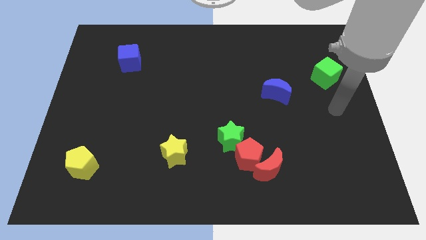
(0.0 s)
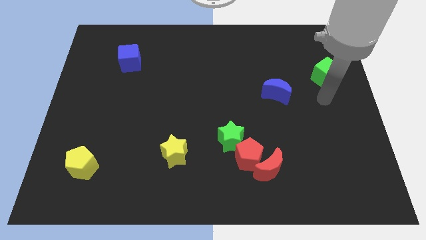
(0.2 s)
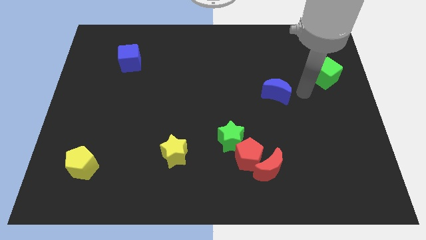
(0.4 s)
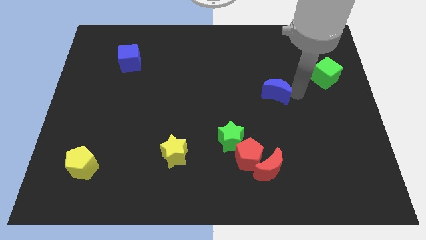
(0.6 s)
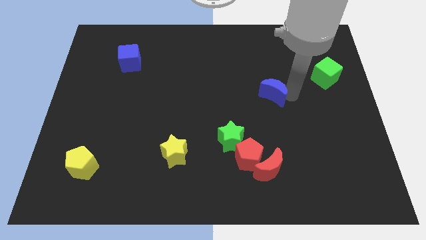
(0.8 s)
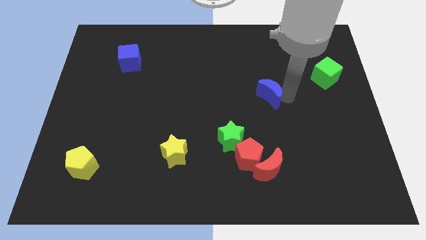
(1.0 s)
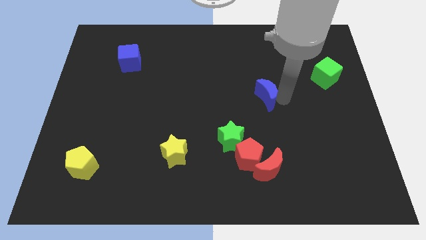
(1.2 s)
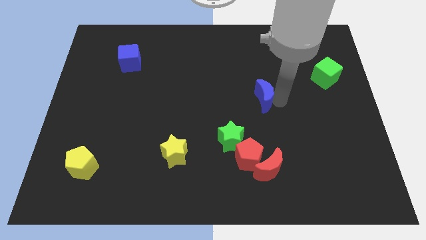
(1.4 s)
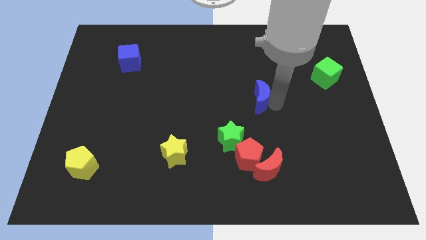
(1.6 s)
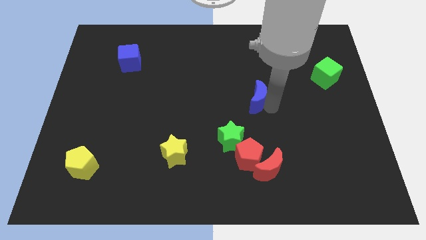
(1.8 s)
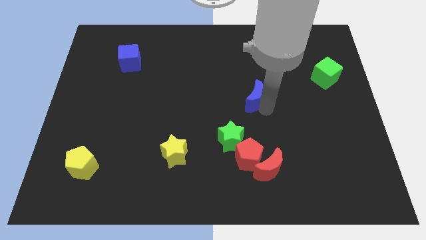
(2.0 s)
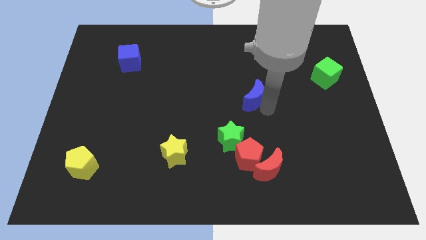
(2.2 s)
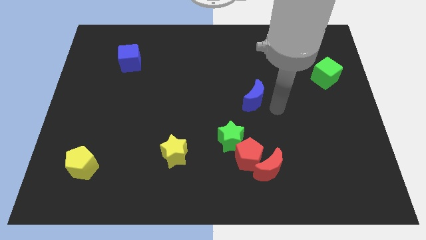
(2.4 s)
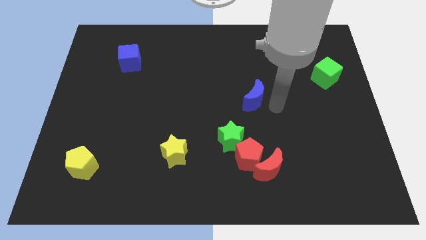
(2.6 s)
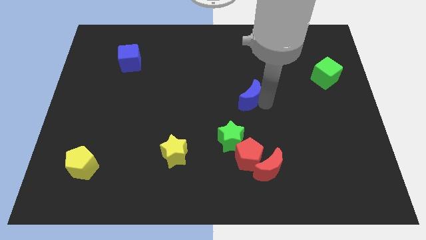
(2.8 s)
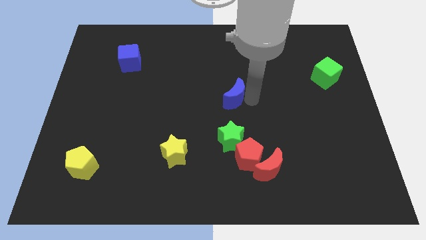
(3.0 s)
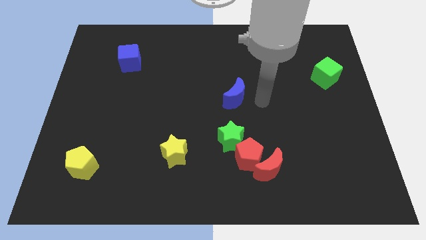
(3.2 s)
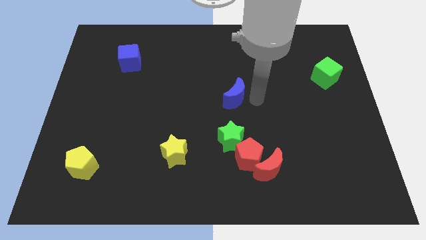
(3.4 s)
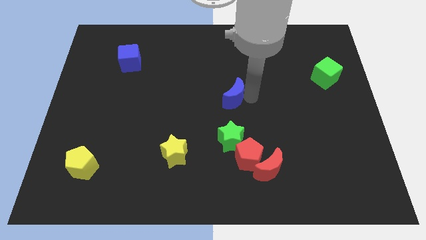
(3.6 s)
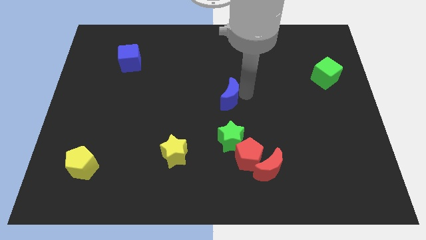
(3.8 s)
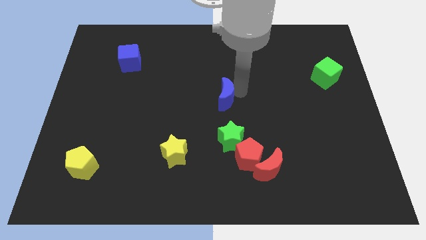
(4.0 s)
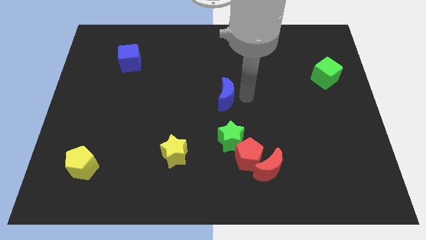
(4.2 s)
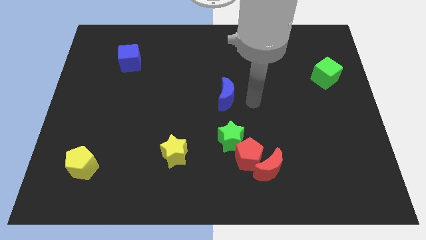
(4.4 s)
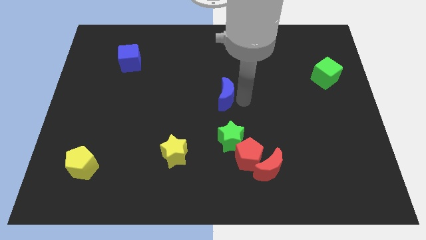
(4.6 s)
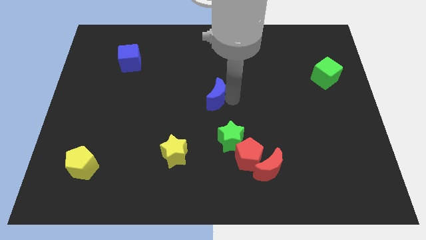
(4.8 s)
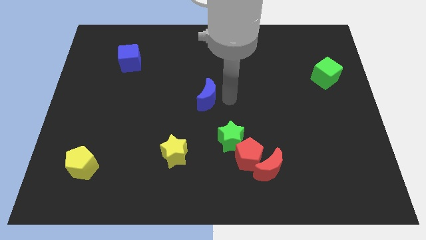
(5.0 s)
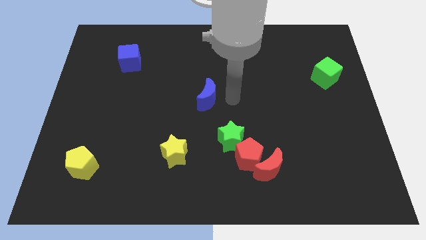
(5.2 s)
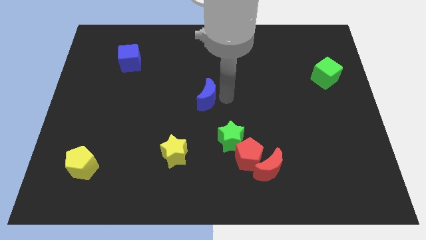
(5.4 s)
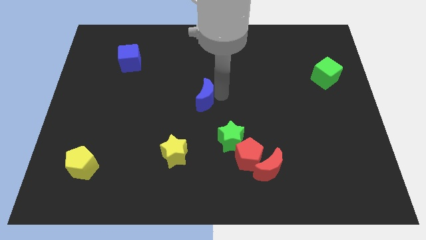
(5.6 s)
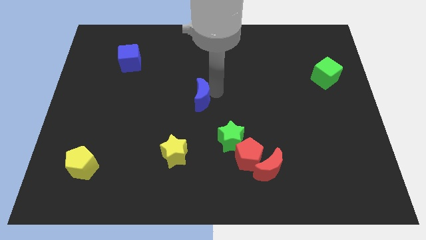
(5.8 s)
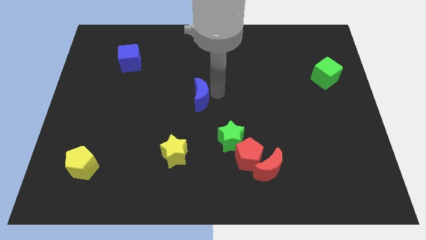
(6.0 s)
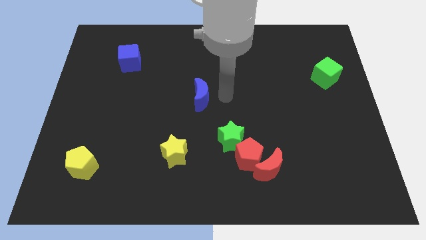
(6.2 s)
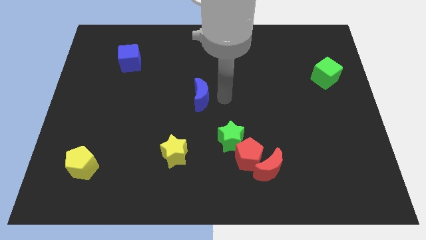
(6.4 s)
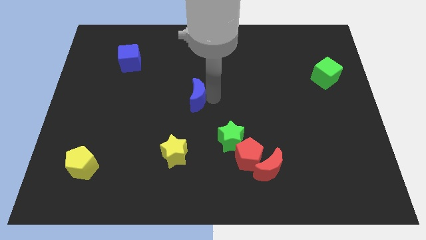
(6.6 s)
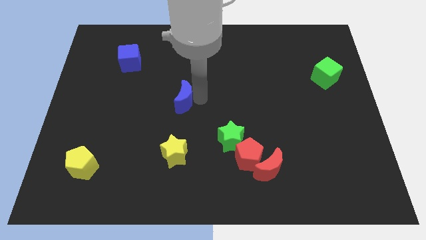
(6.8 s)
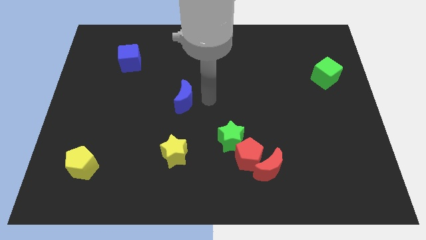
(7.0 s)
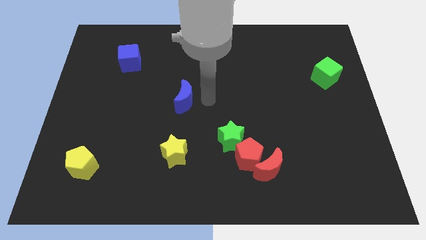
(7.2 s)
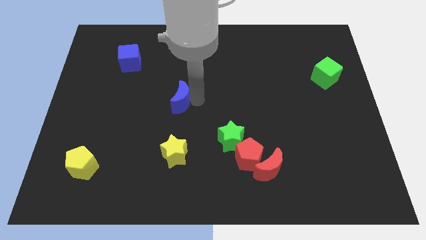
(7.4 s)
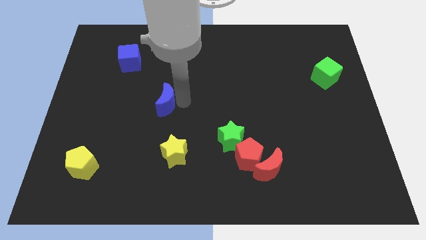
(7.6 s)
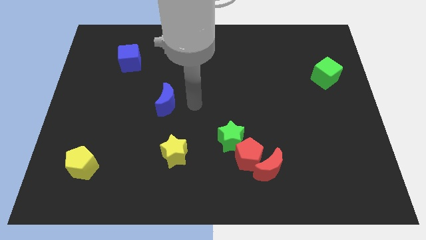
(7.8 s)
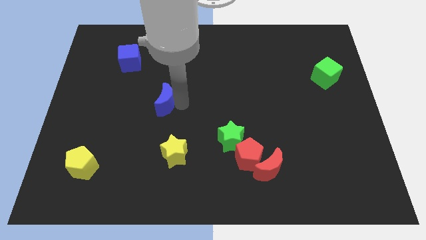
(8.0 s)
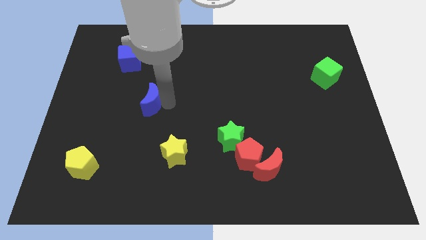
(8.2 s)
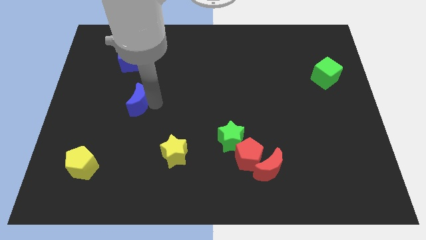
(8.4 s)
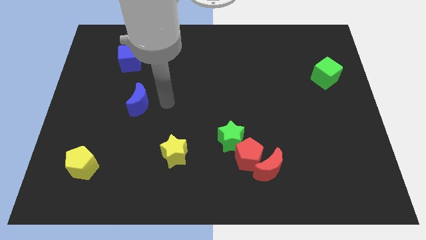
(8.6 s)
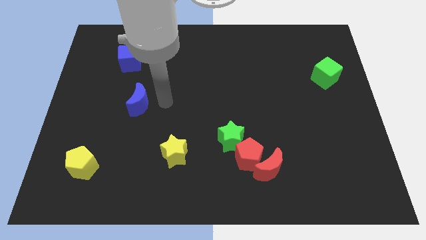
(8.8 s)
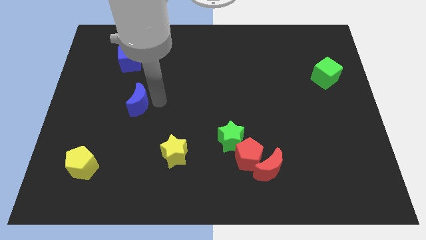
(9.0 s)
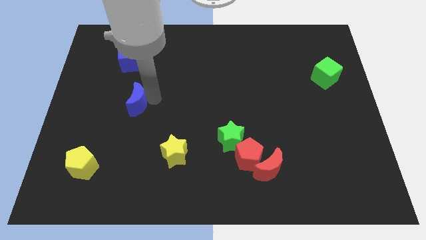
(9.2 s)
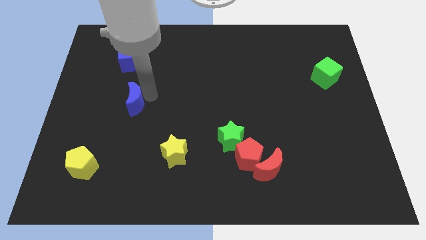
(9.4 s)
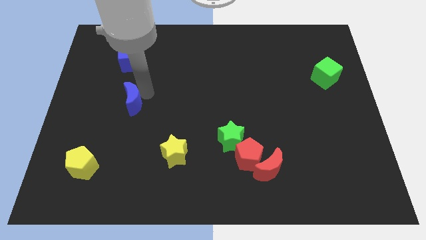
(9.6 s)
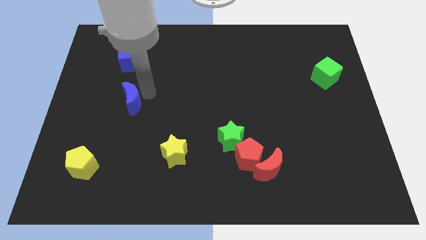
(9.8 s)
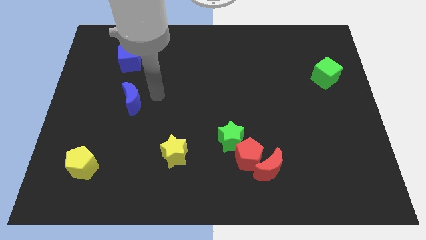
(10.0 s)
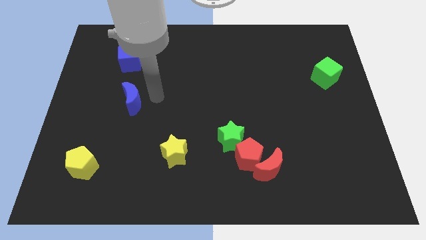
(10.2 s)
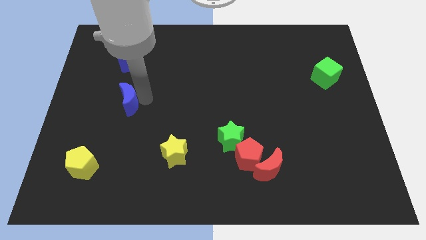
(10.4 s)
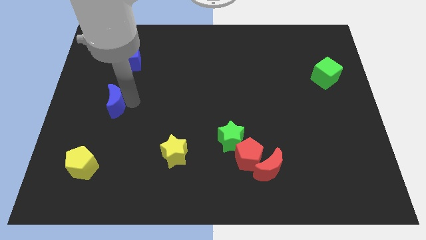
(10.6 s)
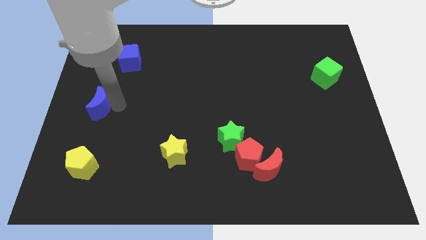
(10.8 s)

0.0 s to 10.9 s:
push the blue moon to the center left

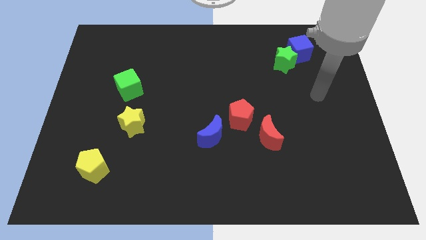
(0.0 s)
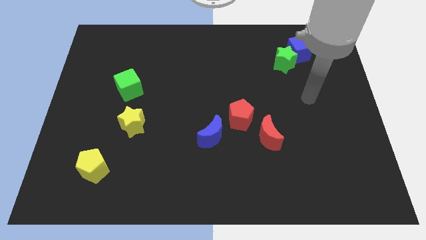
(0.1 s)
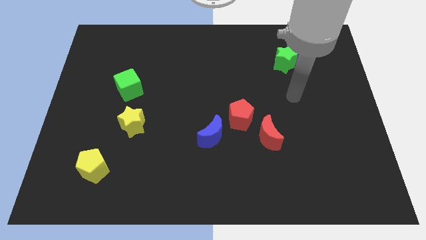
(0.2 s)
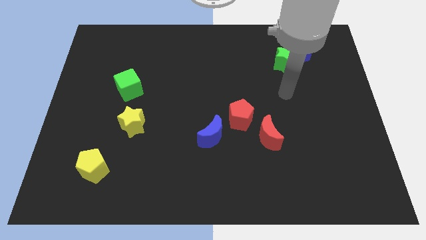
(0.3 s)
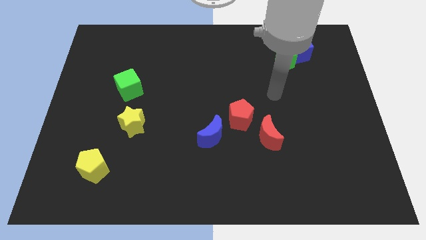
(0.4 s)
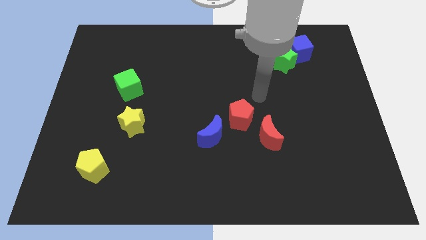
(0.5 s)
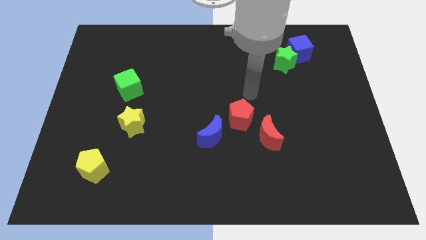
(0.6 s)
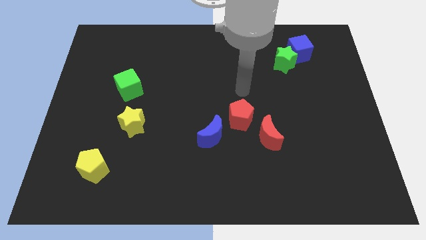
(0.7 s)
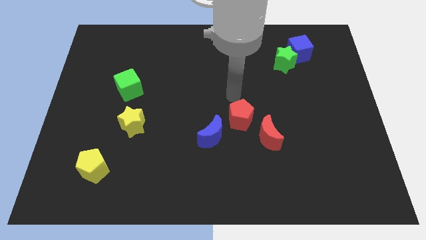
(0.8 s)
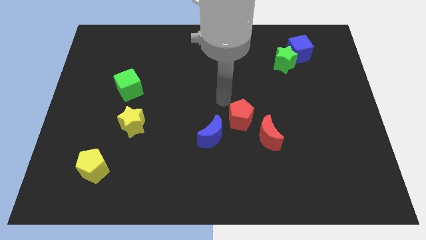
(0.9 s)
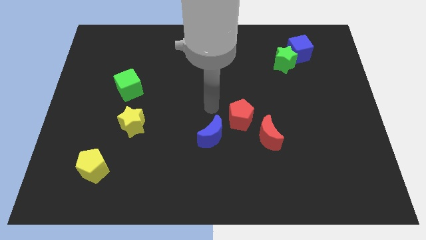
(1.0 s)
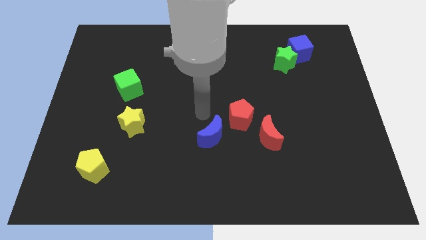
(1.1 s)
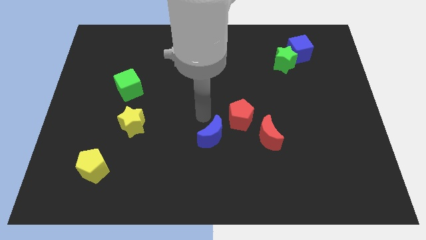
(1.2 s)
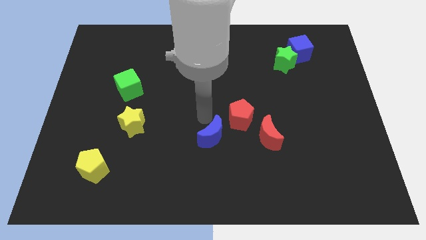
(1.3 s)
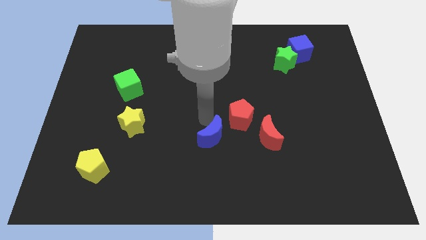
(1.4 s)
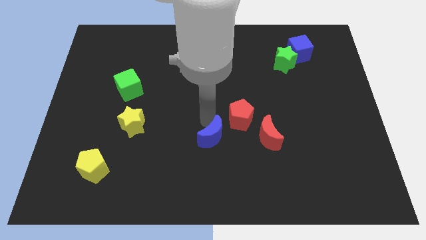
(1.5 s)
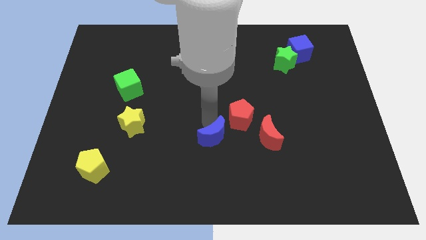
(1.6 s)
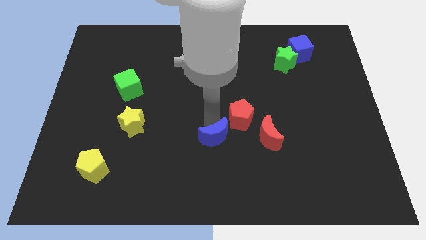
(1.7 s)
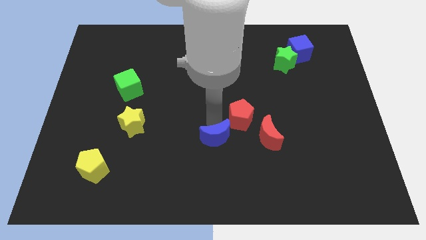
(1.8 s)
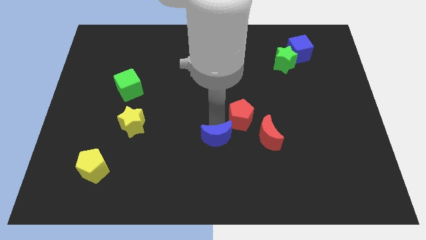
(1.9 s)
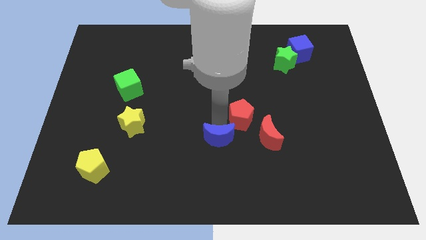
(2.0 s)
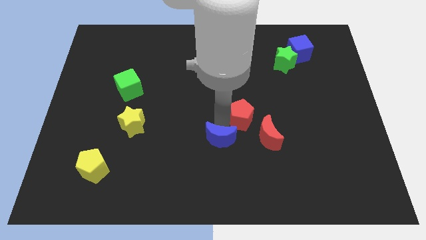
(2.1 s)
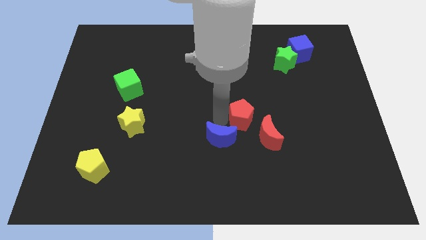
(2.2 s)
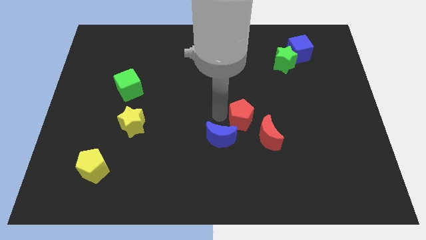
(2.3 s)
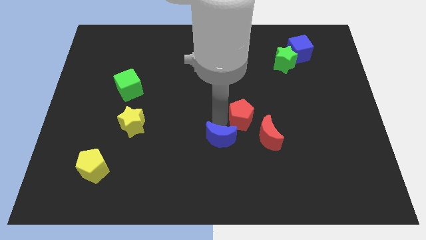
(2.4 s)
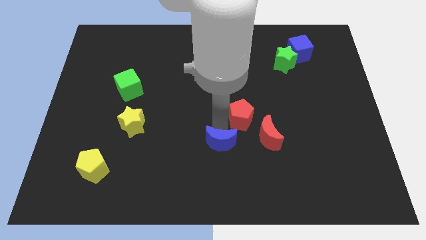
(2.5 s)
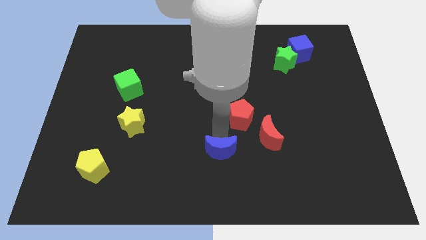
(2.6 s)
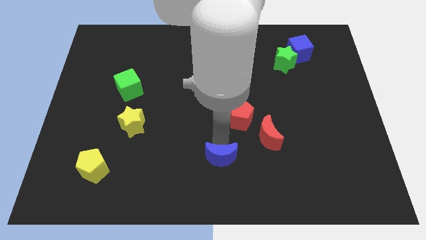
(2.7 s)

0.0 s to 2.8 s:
move the blue moon to the bottom side
